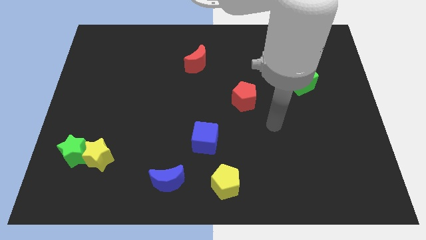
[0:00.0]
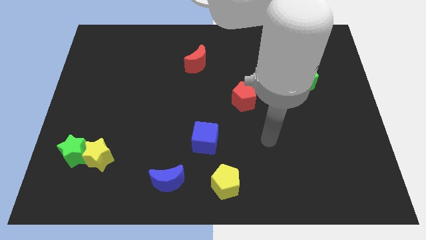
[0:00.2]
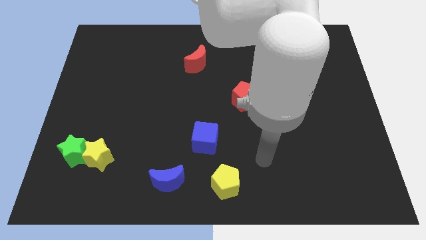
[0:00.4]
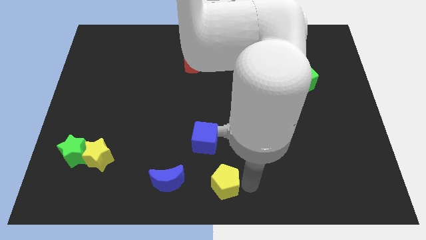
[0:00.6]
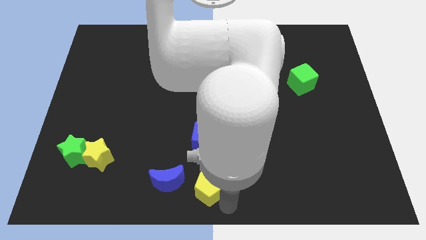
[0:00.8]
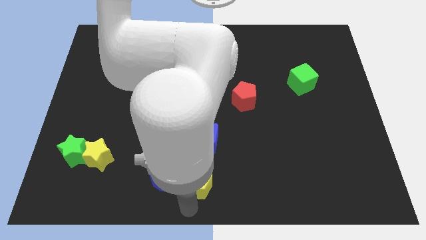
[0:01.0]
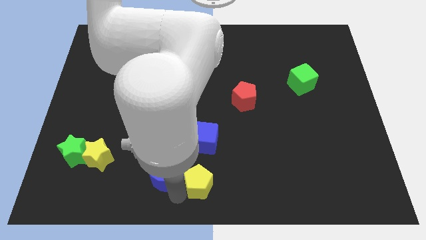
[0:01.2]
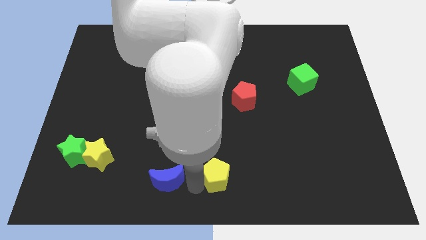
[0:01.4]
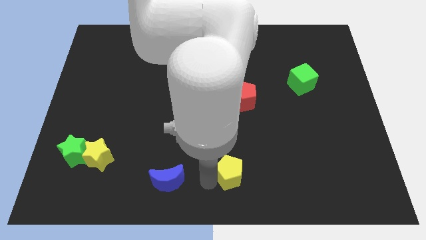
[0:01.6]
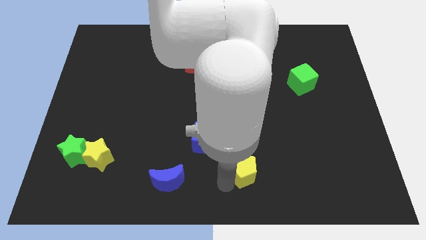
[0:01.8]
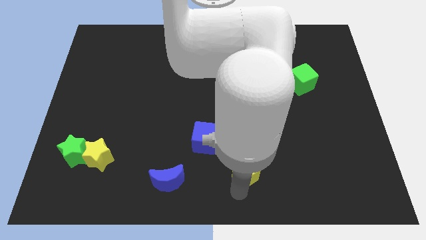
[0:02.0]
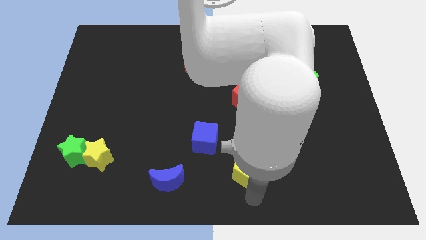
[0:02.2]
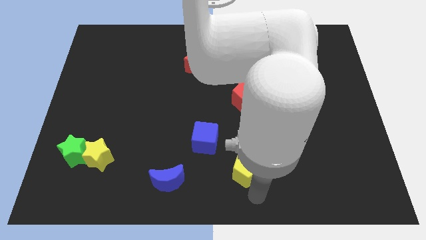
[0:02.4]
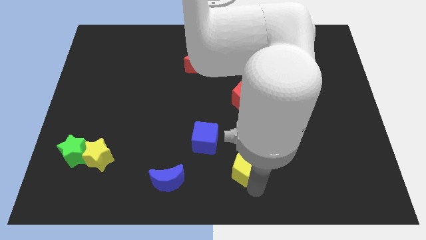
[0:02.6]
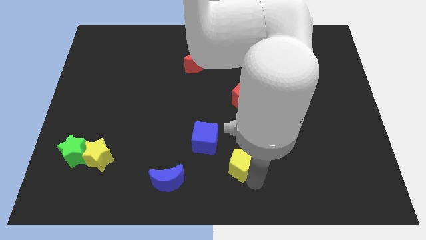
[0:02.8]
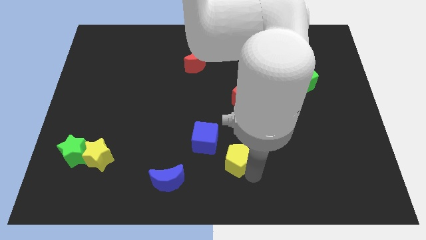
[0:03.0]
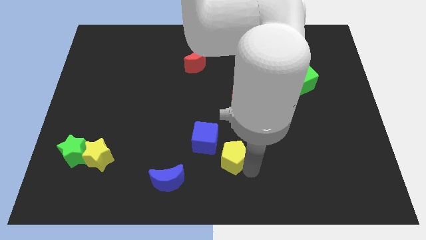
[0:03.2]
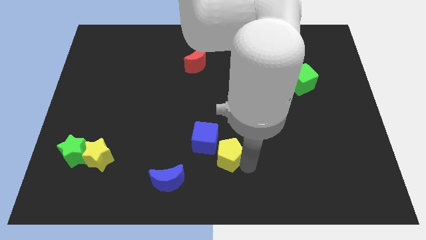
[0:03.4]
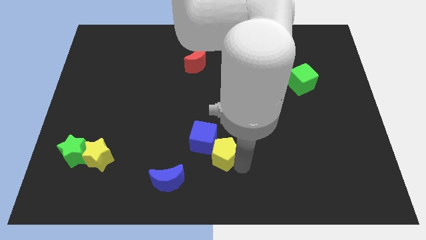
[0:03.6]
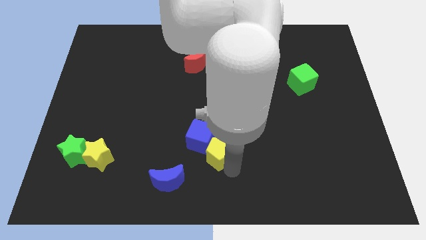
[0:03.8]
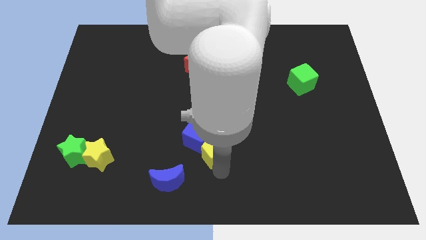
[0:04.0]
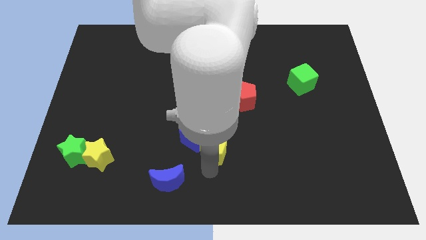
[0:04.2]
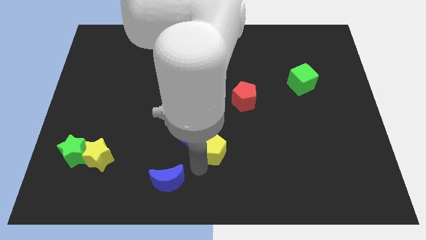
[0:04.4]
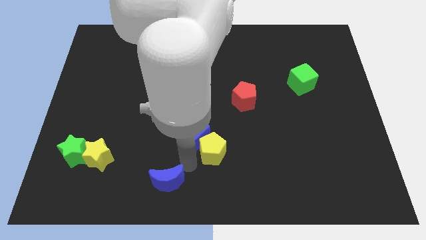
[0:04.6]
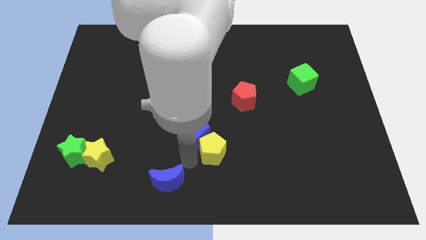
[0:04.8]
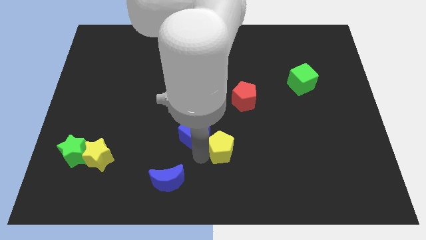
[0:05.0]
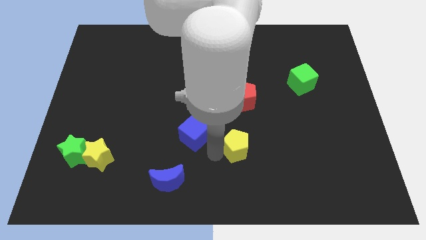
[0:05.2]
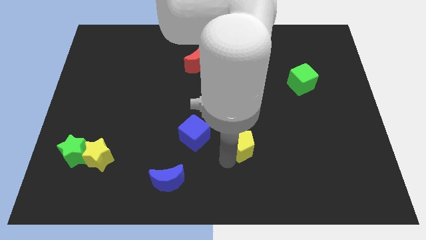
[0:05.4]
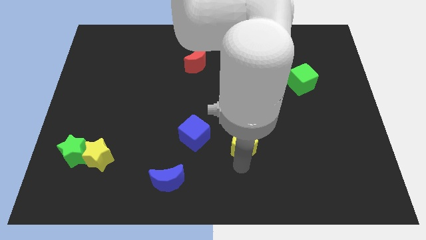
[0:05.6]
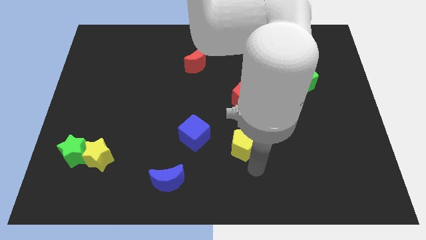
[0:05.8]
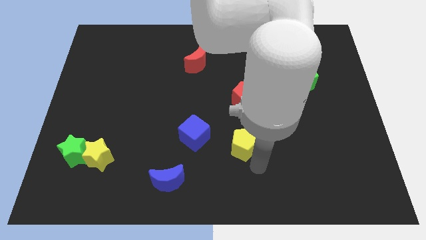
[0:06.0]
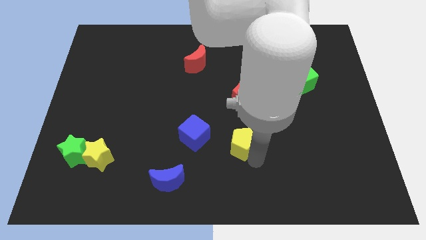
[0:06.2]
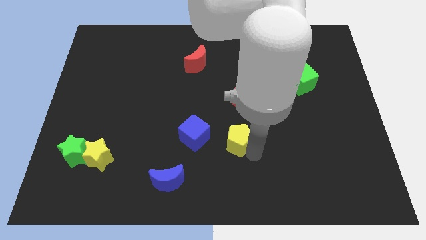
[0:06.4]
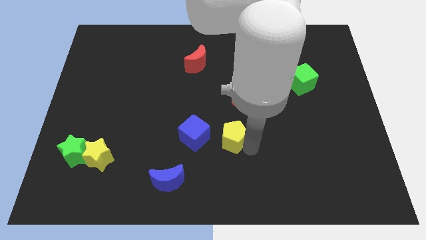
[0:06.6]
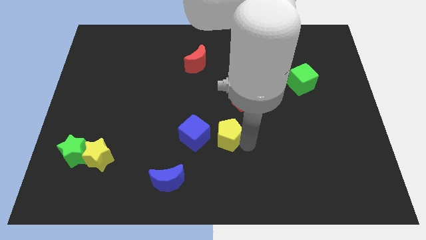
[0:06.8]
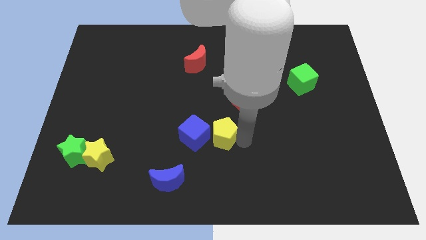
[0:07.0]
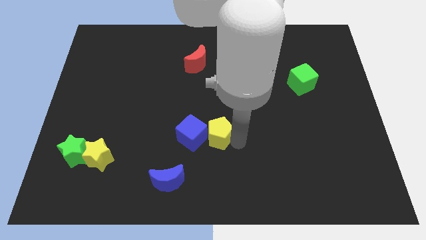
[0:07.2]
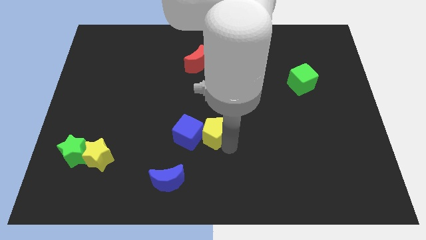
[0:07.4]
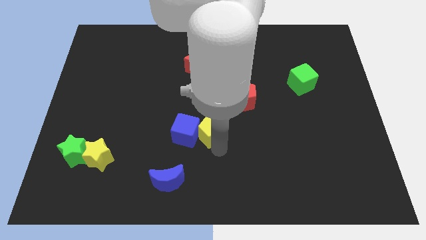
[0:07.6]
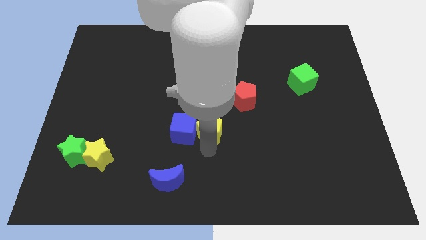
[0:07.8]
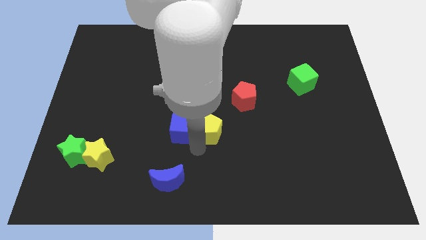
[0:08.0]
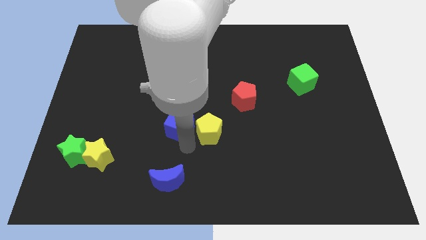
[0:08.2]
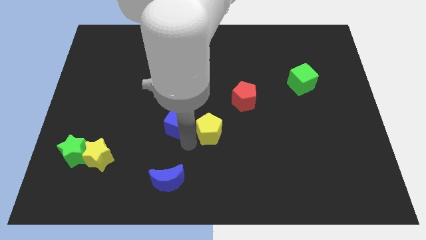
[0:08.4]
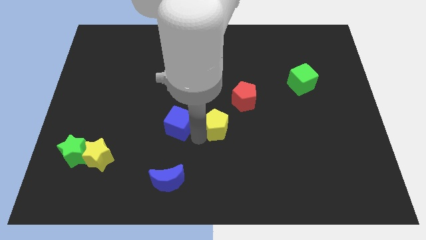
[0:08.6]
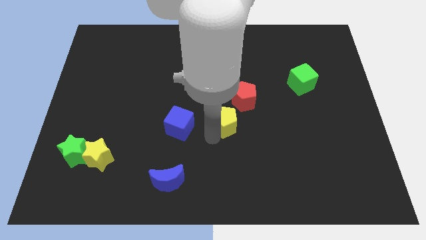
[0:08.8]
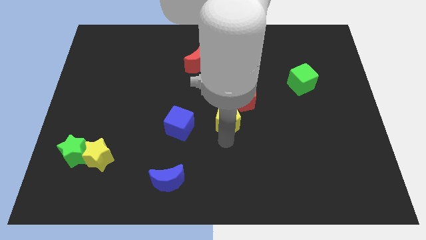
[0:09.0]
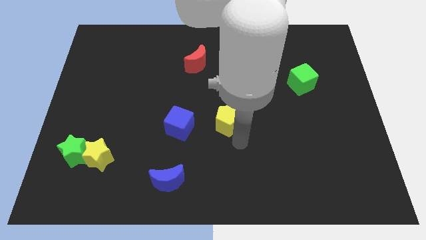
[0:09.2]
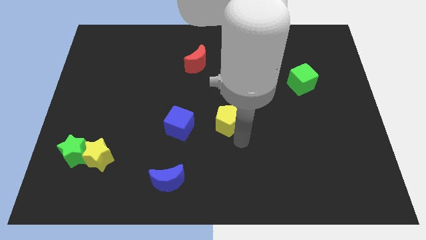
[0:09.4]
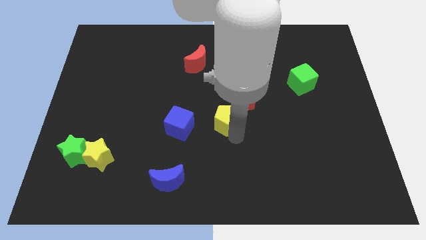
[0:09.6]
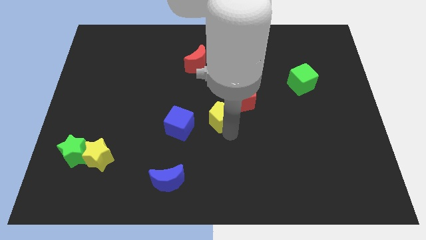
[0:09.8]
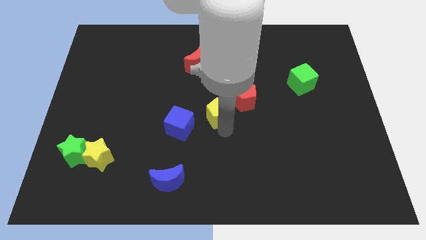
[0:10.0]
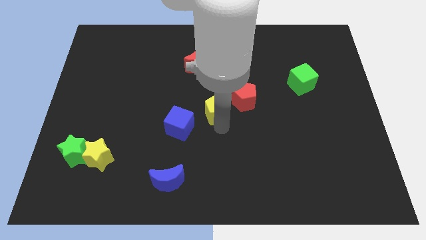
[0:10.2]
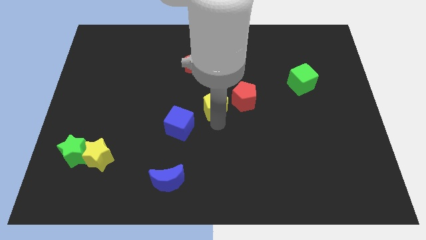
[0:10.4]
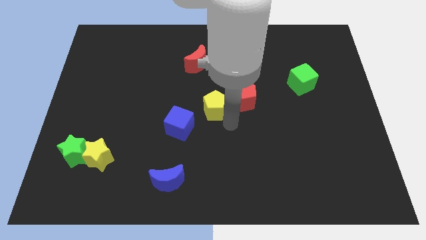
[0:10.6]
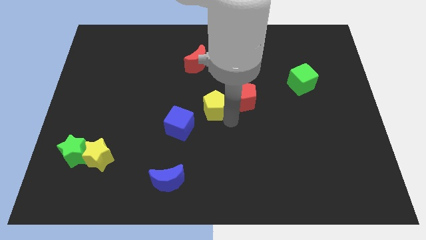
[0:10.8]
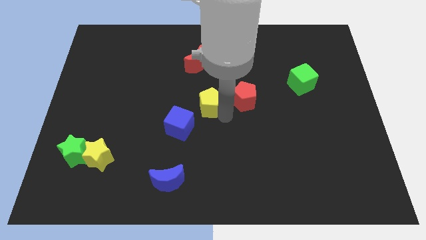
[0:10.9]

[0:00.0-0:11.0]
move the yellow pentagon to the bottom side of the red moon

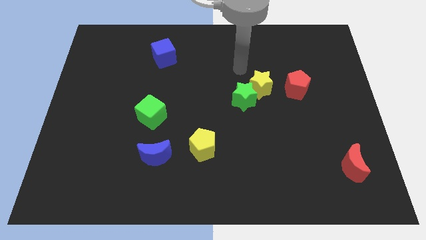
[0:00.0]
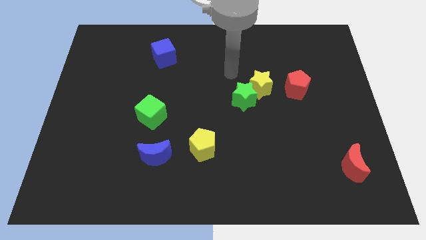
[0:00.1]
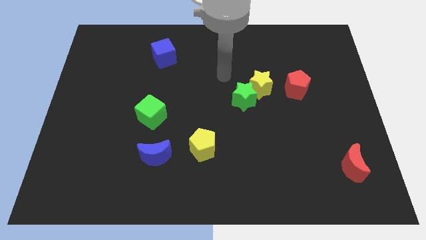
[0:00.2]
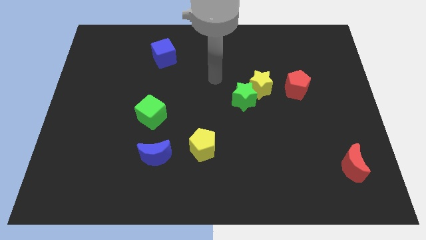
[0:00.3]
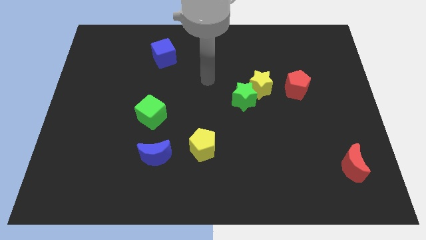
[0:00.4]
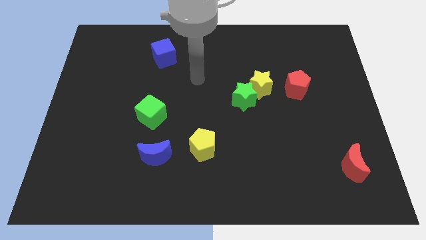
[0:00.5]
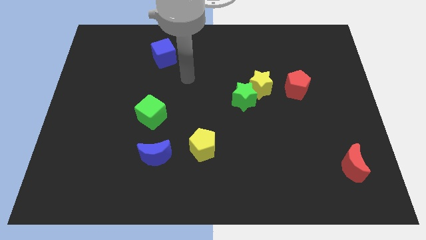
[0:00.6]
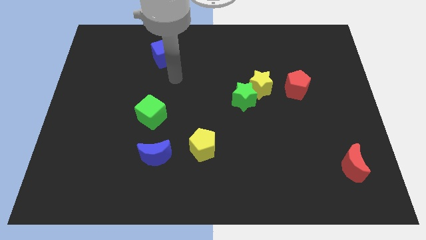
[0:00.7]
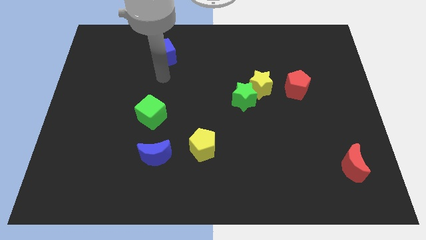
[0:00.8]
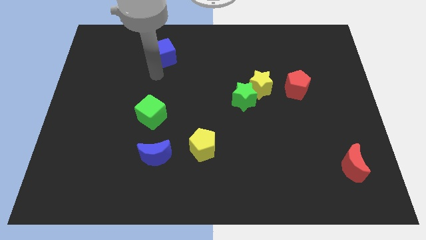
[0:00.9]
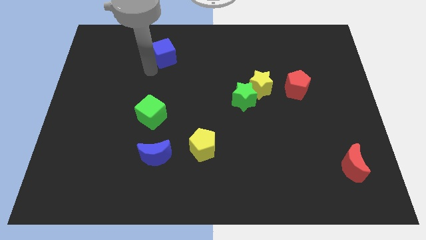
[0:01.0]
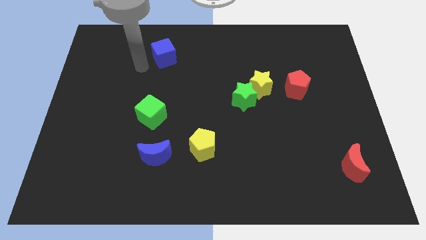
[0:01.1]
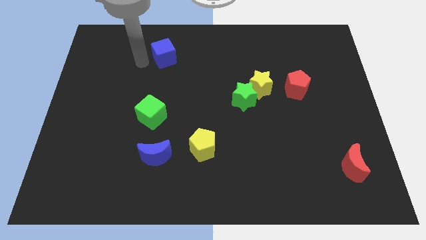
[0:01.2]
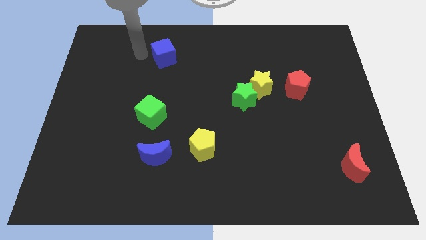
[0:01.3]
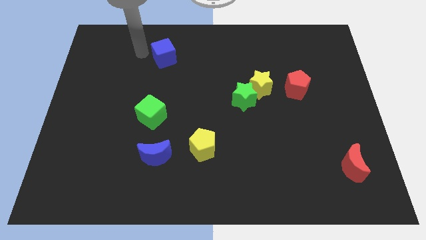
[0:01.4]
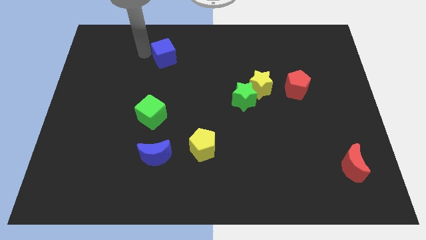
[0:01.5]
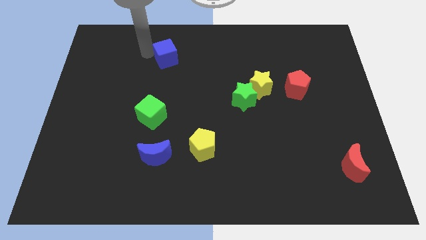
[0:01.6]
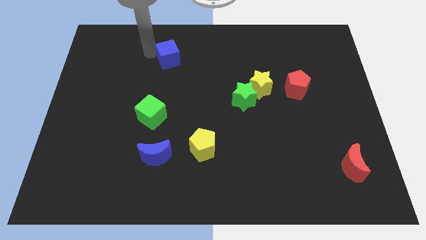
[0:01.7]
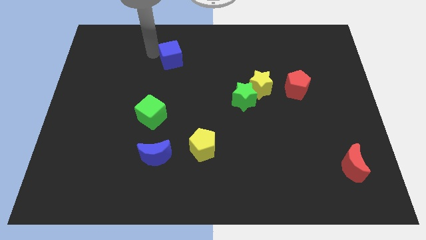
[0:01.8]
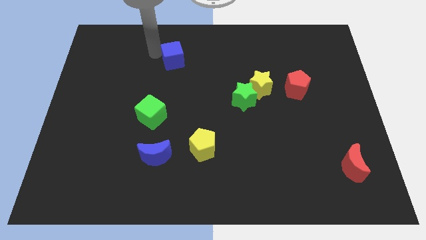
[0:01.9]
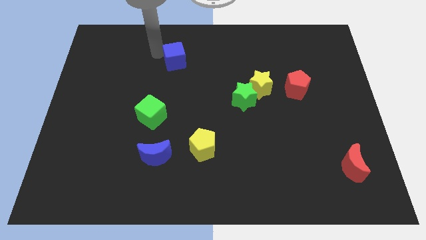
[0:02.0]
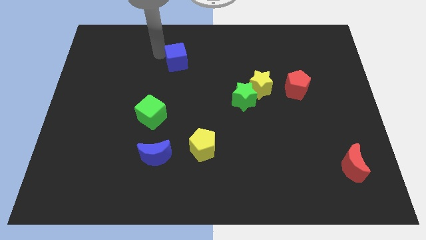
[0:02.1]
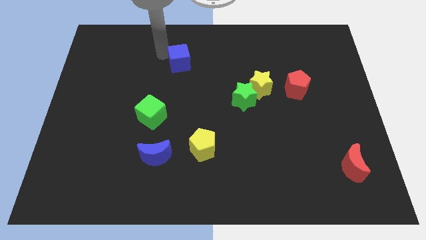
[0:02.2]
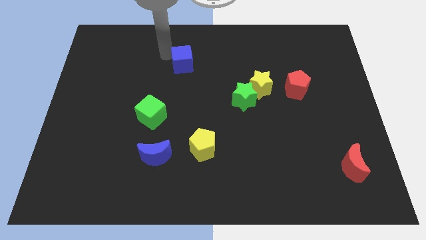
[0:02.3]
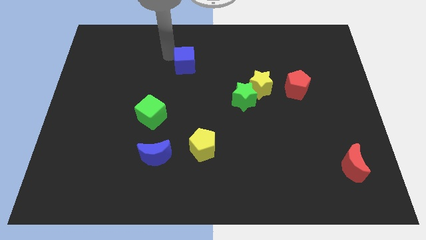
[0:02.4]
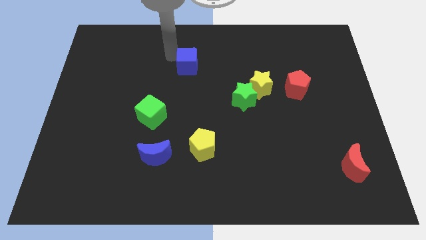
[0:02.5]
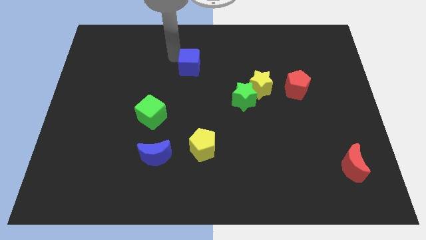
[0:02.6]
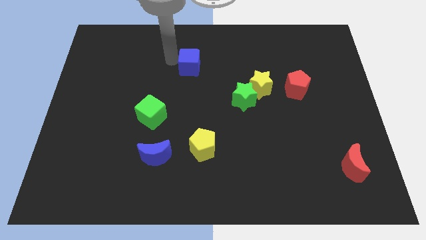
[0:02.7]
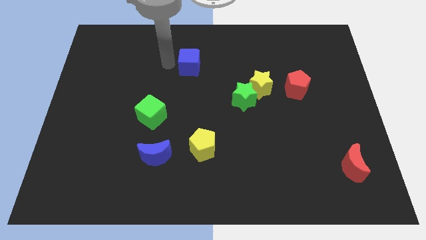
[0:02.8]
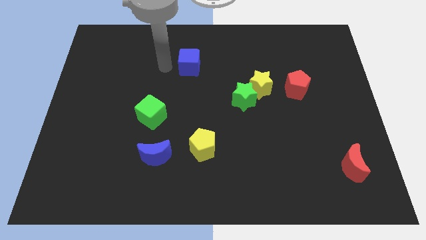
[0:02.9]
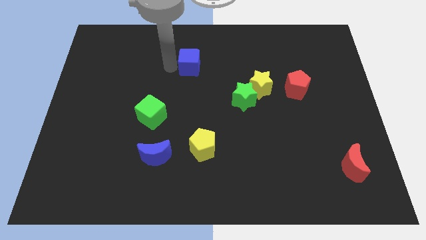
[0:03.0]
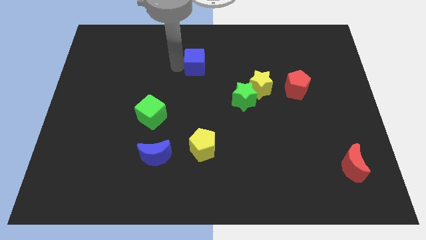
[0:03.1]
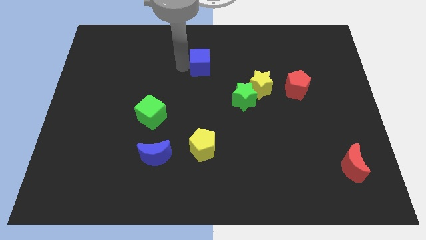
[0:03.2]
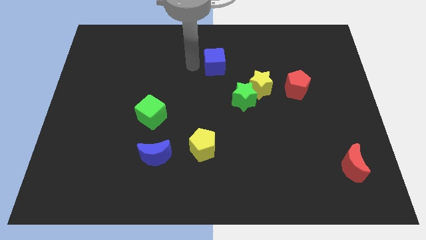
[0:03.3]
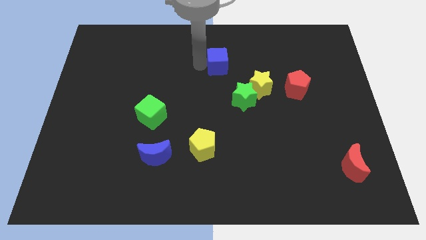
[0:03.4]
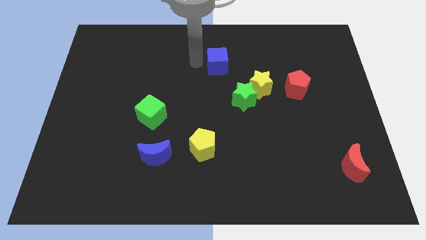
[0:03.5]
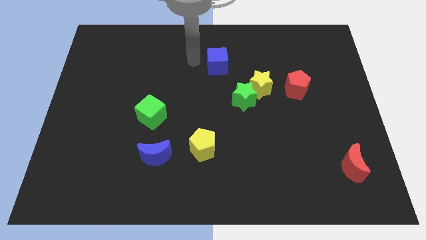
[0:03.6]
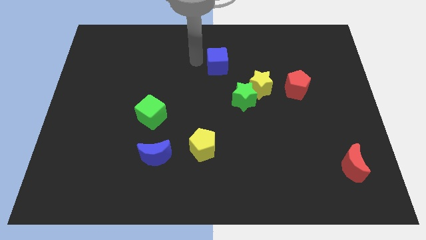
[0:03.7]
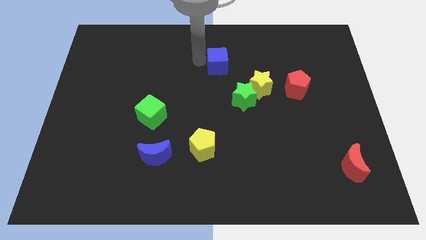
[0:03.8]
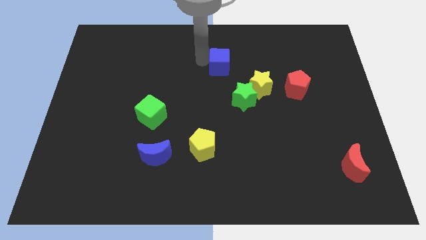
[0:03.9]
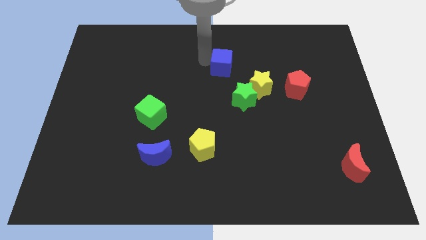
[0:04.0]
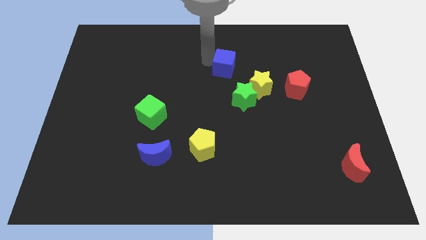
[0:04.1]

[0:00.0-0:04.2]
slide the blue cube to the top of the green star
